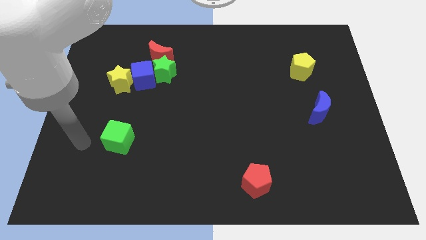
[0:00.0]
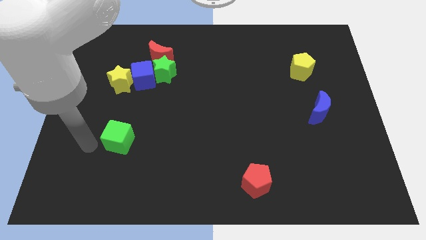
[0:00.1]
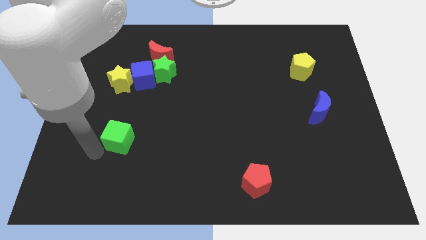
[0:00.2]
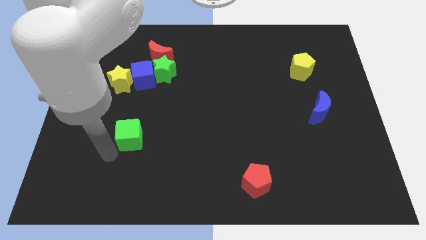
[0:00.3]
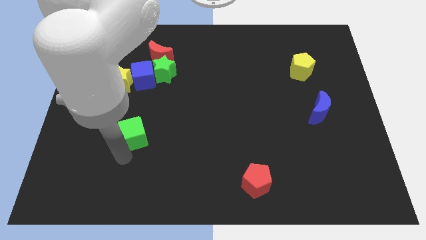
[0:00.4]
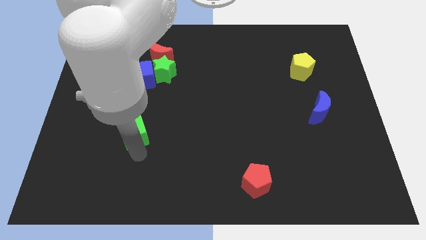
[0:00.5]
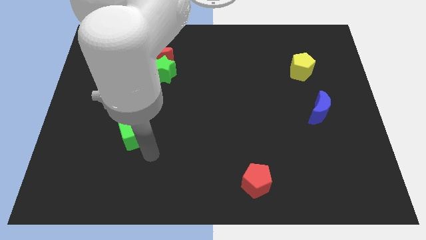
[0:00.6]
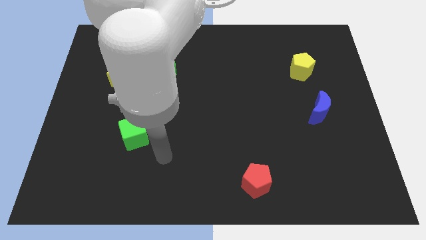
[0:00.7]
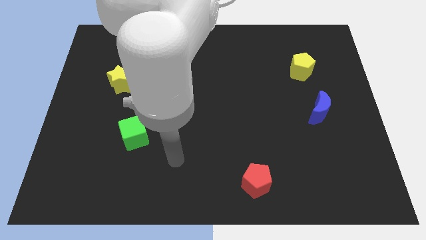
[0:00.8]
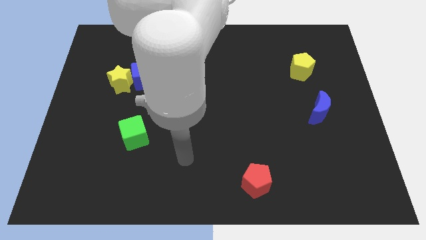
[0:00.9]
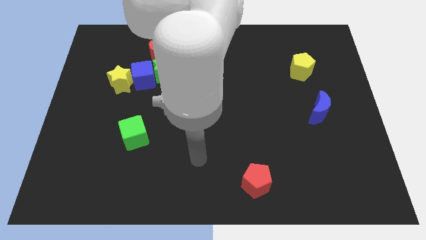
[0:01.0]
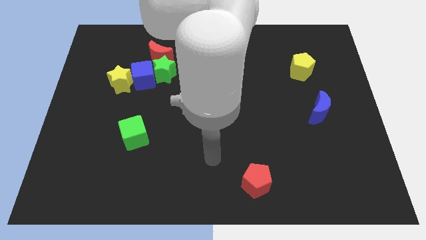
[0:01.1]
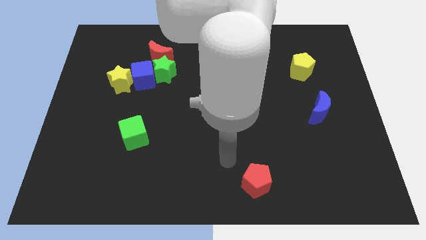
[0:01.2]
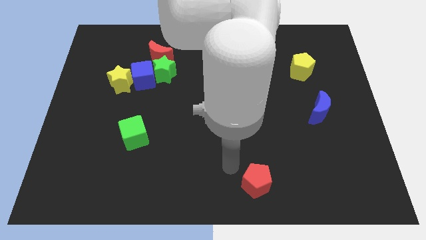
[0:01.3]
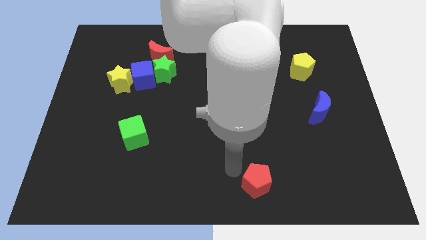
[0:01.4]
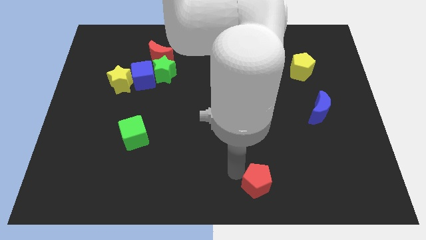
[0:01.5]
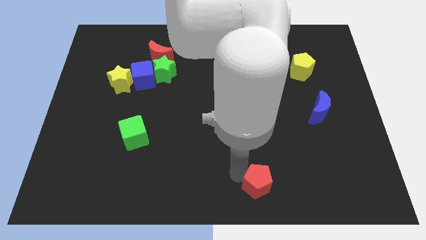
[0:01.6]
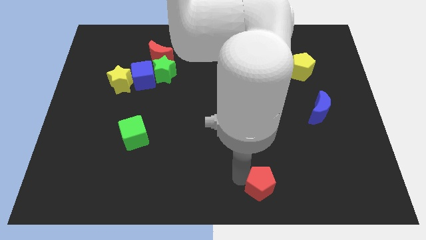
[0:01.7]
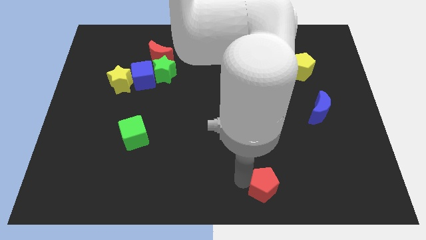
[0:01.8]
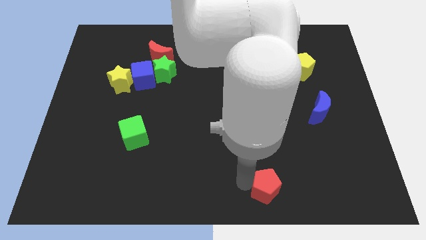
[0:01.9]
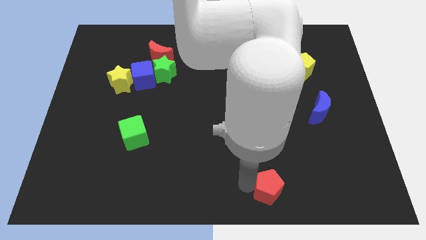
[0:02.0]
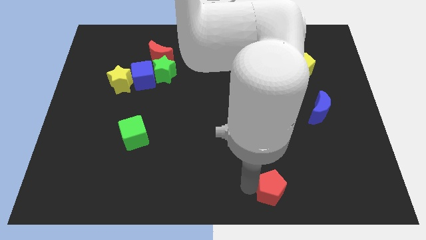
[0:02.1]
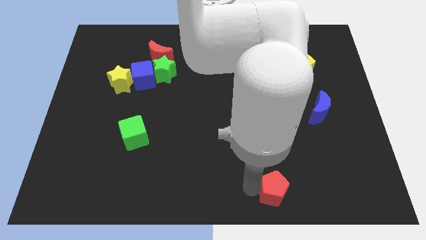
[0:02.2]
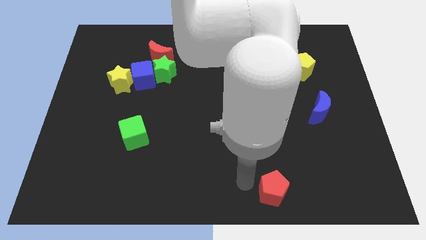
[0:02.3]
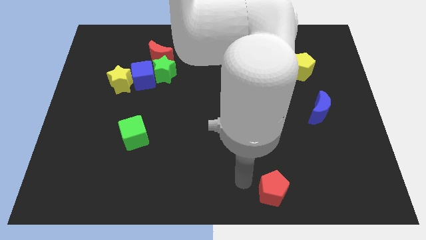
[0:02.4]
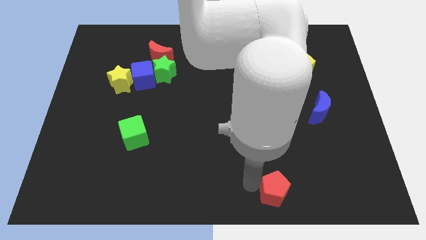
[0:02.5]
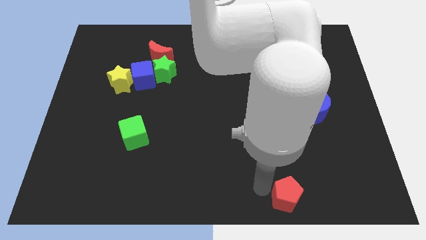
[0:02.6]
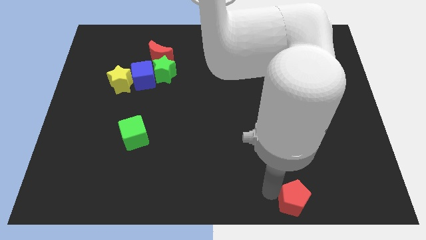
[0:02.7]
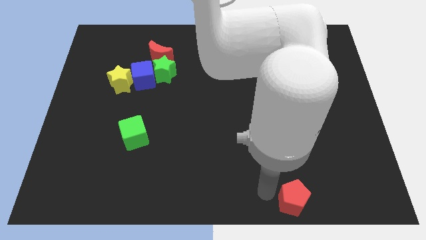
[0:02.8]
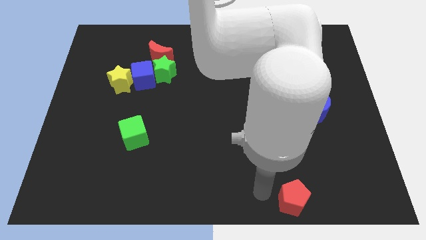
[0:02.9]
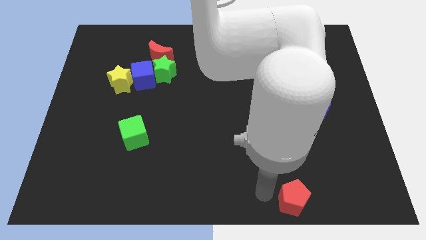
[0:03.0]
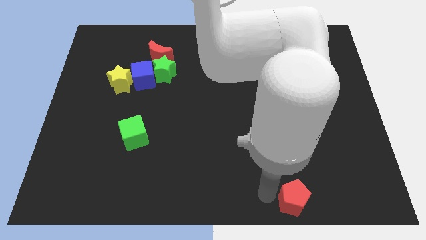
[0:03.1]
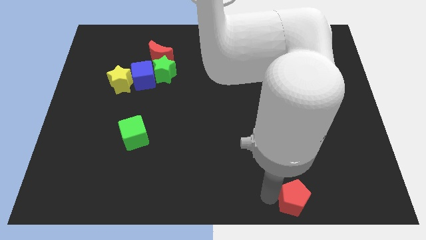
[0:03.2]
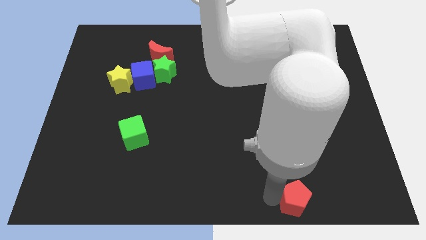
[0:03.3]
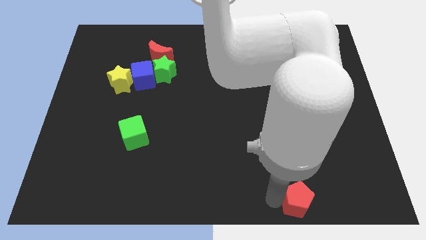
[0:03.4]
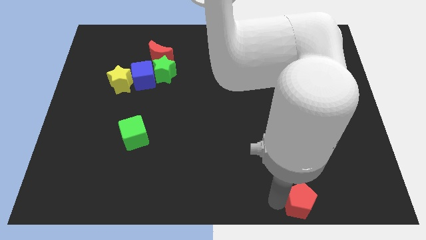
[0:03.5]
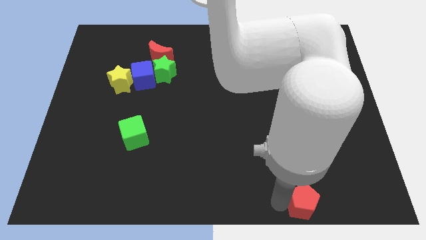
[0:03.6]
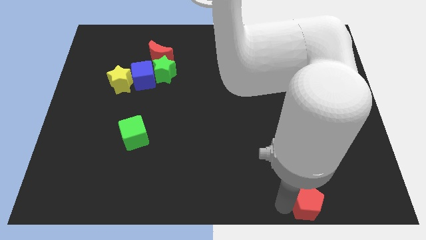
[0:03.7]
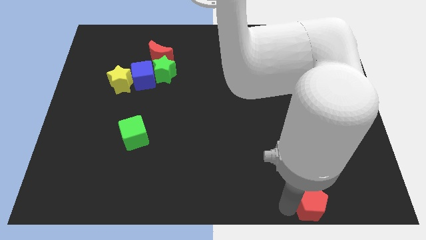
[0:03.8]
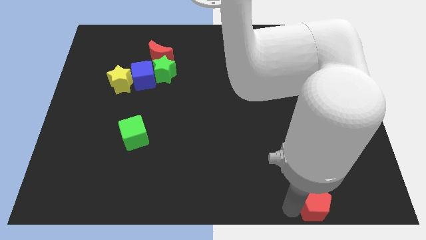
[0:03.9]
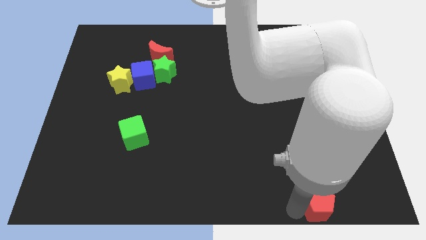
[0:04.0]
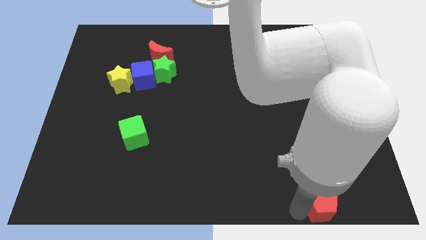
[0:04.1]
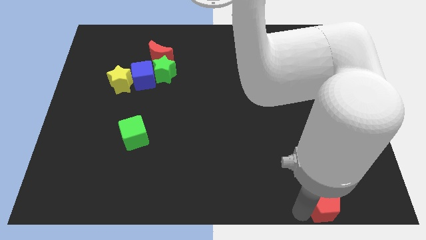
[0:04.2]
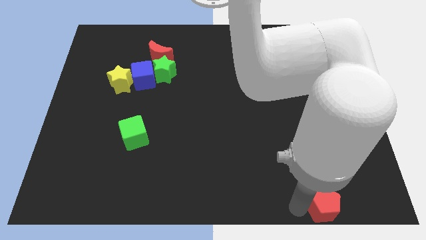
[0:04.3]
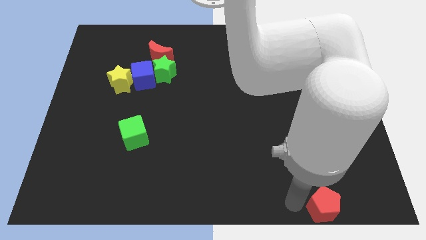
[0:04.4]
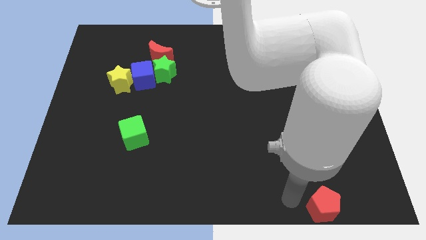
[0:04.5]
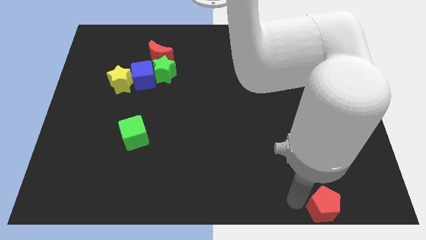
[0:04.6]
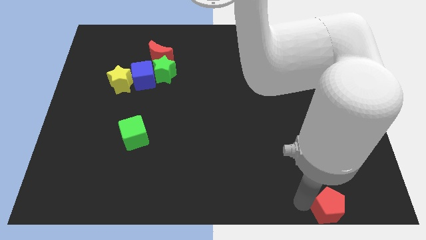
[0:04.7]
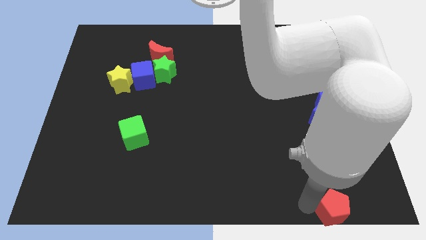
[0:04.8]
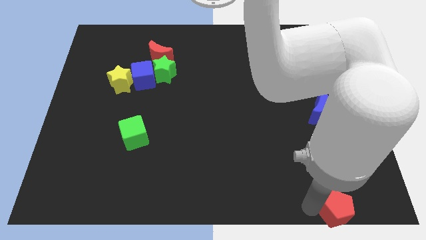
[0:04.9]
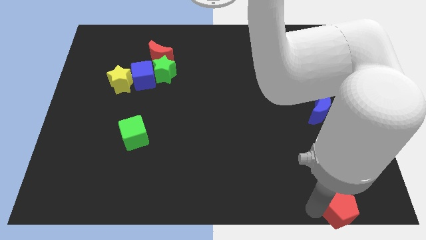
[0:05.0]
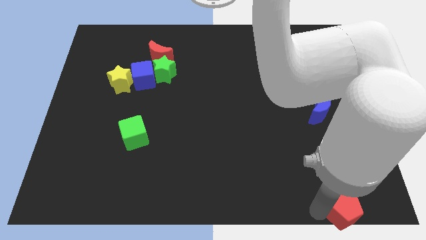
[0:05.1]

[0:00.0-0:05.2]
move the red pentagon to the bottom right

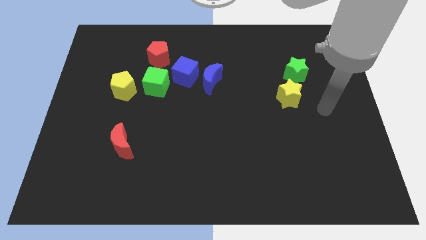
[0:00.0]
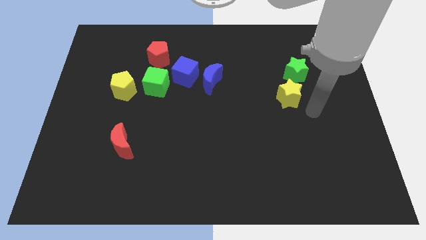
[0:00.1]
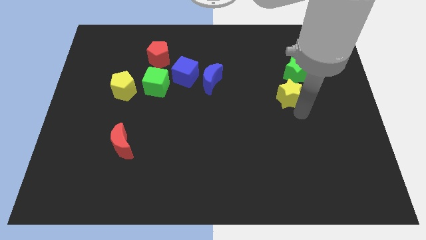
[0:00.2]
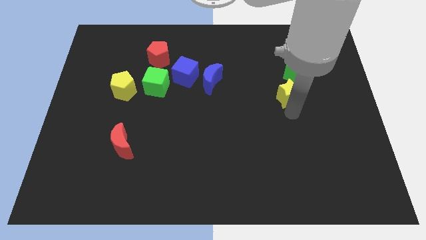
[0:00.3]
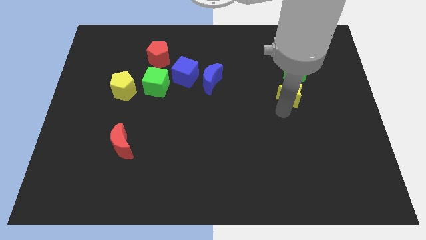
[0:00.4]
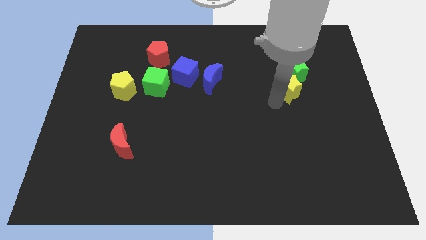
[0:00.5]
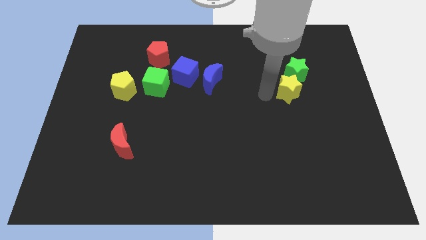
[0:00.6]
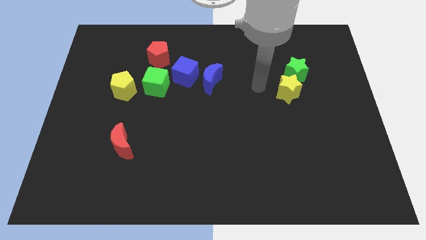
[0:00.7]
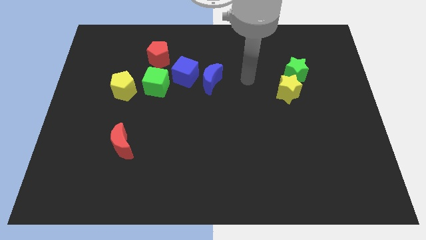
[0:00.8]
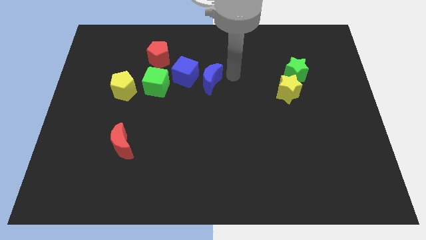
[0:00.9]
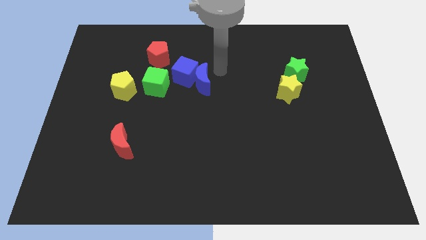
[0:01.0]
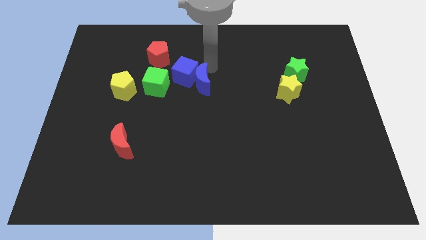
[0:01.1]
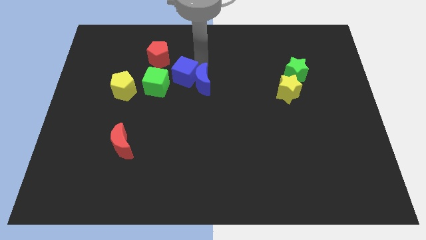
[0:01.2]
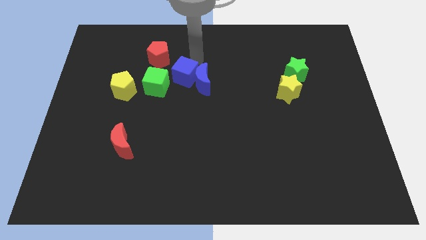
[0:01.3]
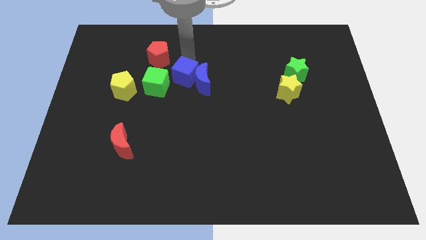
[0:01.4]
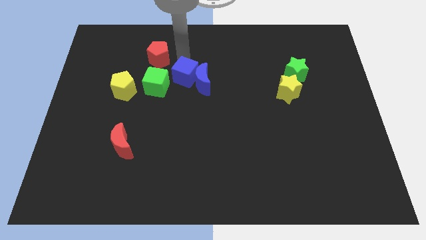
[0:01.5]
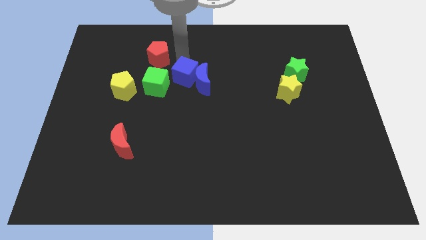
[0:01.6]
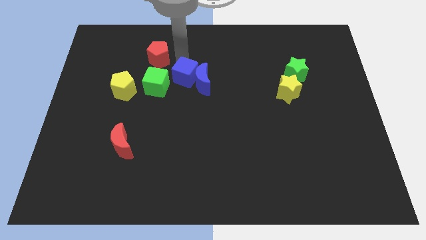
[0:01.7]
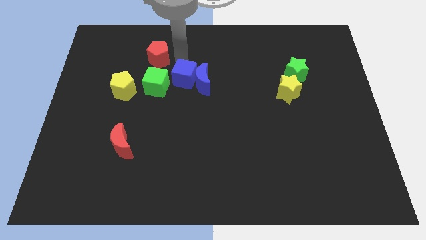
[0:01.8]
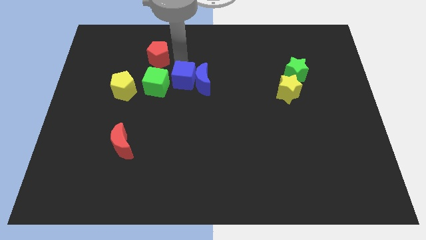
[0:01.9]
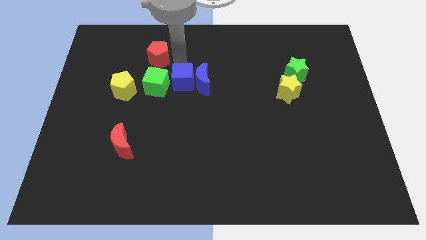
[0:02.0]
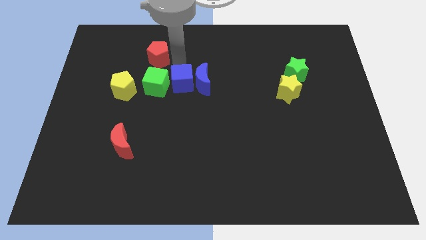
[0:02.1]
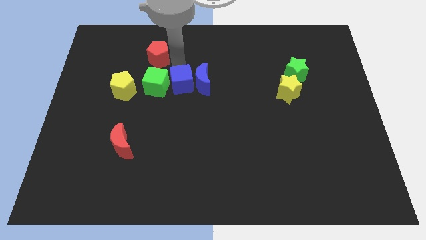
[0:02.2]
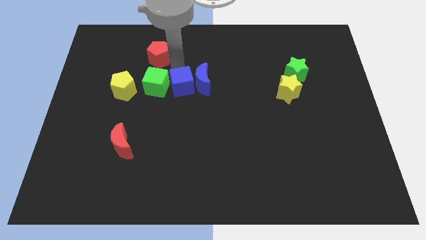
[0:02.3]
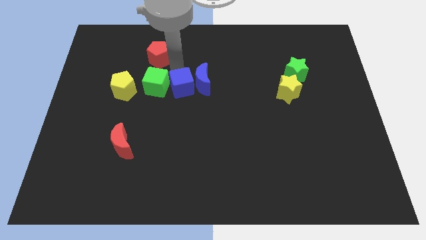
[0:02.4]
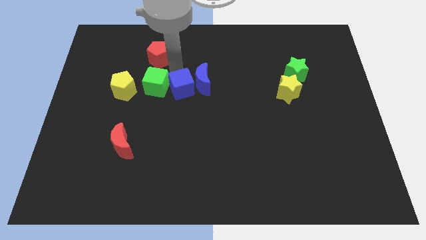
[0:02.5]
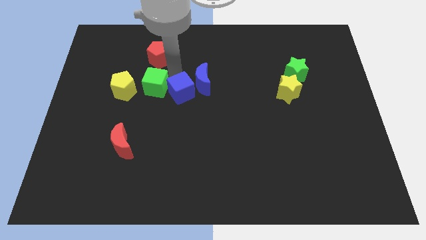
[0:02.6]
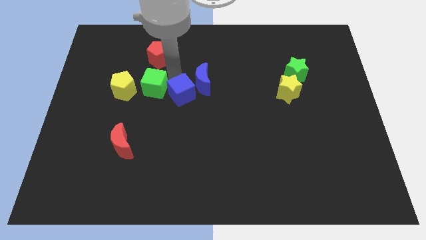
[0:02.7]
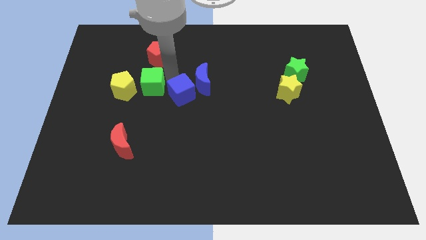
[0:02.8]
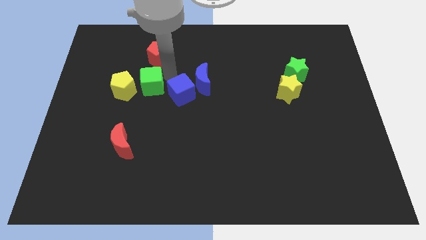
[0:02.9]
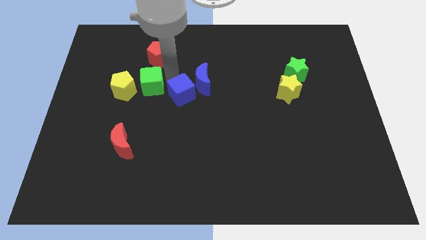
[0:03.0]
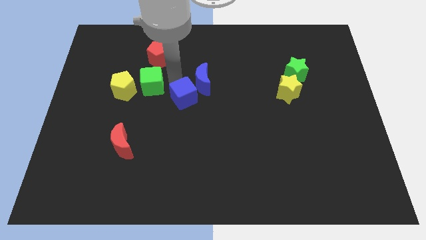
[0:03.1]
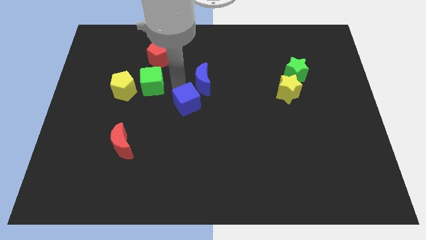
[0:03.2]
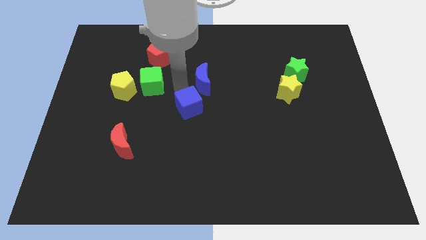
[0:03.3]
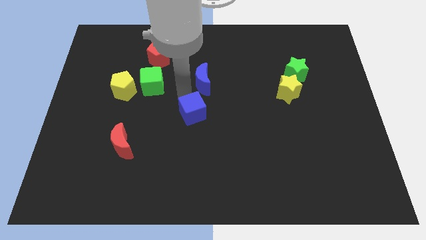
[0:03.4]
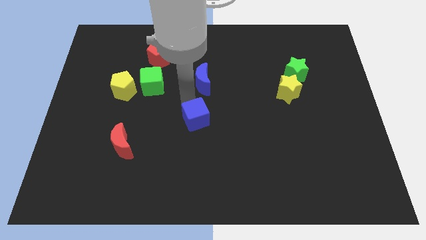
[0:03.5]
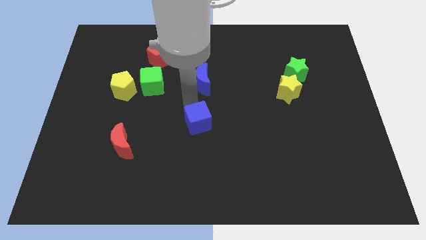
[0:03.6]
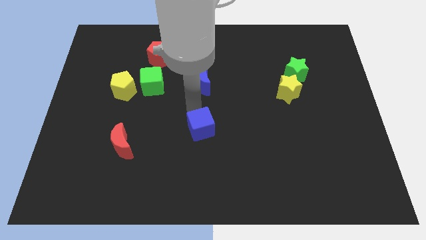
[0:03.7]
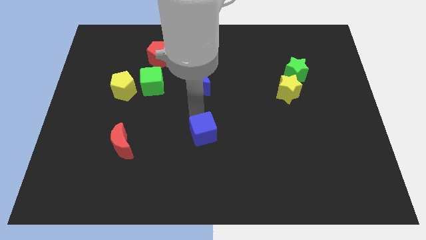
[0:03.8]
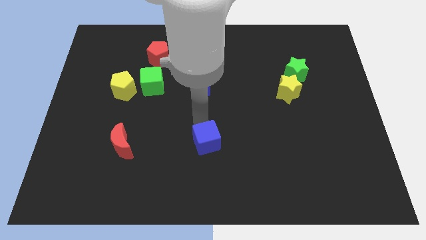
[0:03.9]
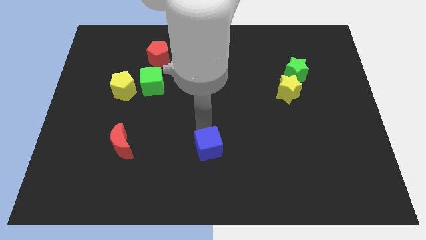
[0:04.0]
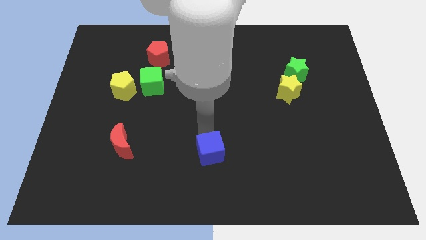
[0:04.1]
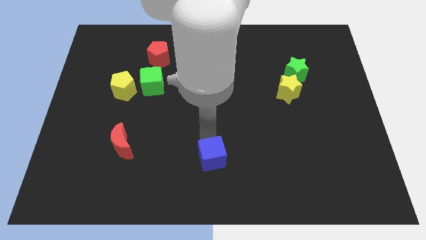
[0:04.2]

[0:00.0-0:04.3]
move the blue cube to the bottom side
